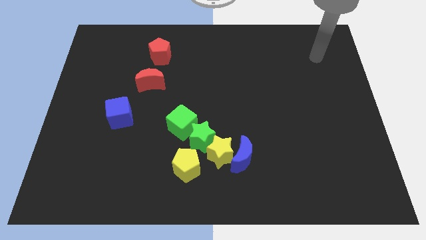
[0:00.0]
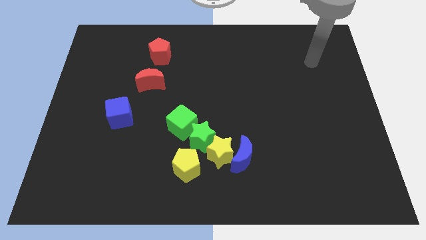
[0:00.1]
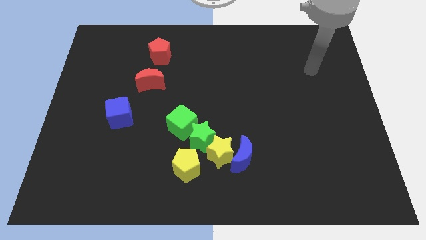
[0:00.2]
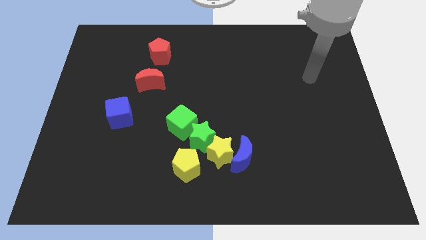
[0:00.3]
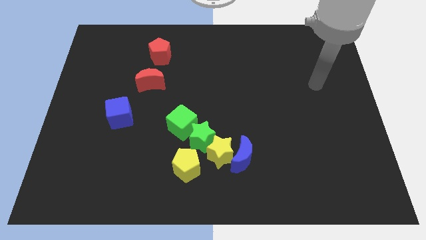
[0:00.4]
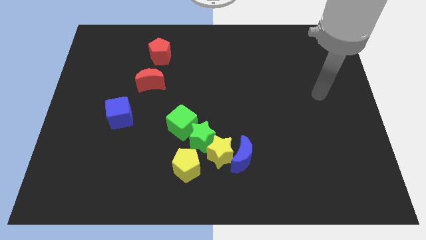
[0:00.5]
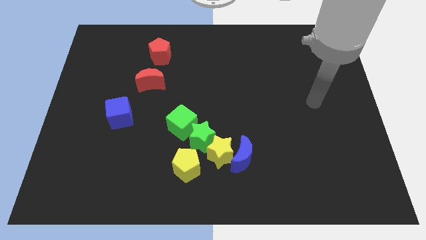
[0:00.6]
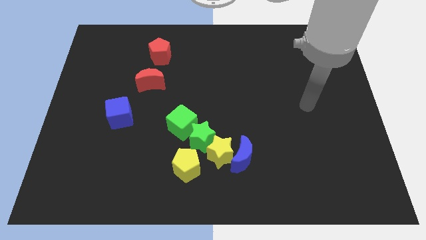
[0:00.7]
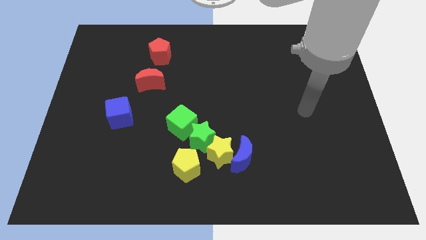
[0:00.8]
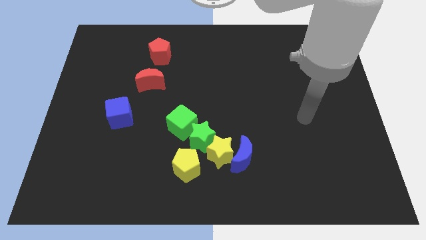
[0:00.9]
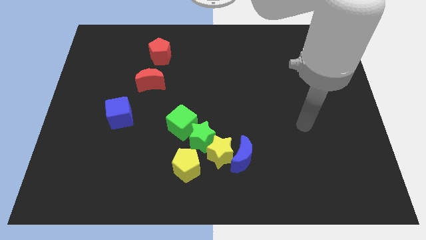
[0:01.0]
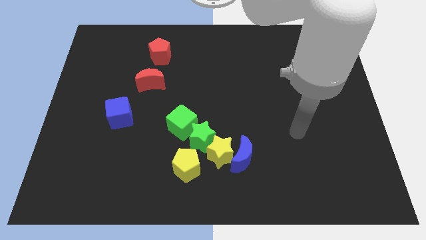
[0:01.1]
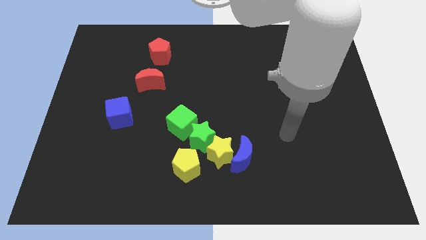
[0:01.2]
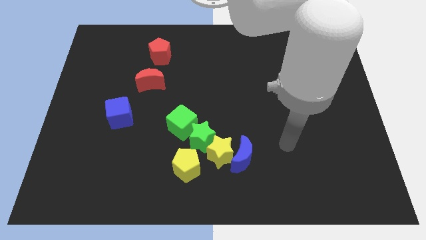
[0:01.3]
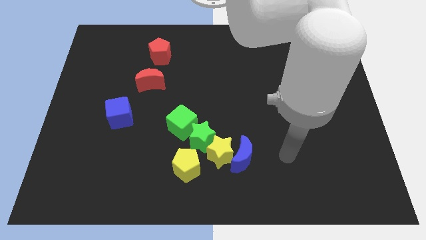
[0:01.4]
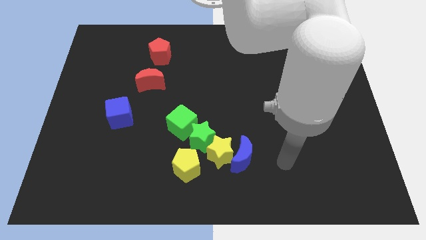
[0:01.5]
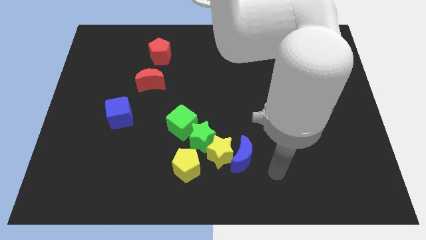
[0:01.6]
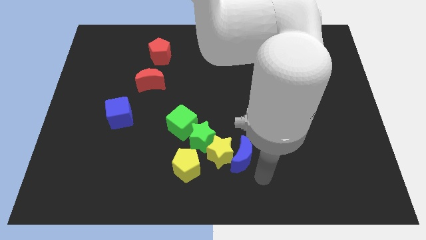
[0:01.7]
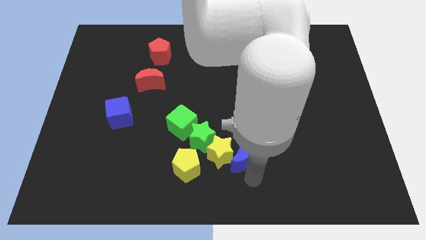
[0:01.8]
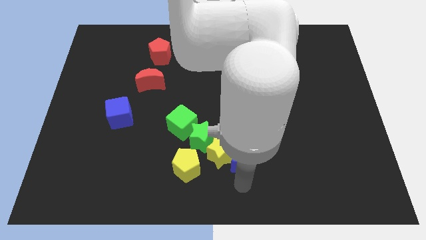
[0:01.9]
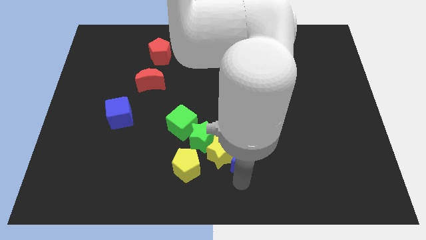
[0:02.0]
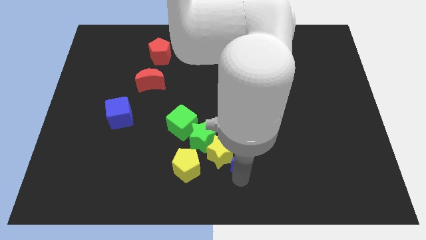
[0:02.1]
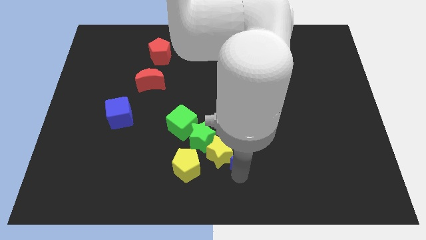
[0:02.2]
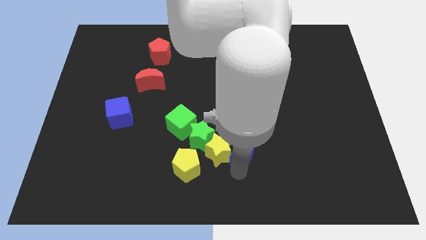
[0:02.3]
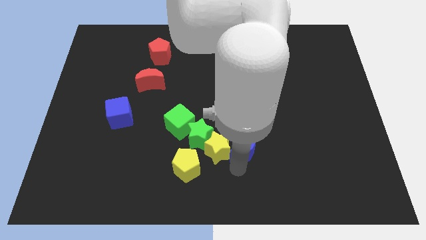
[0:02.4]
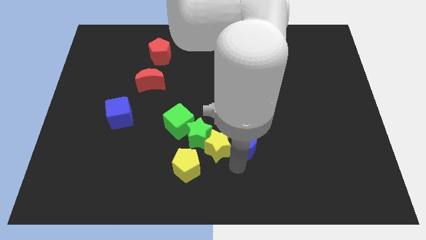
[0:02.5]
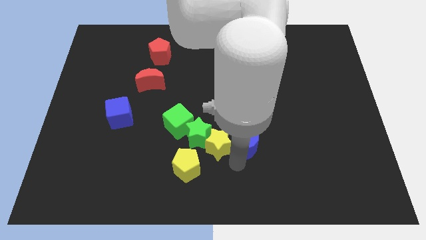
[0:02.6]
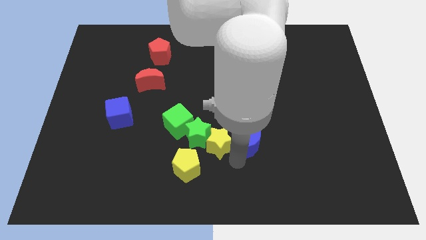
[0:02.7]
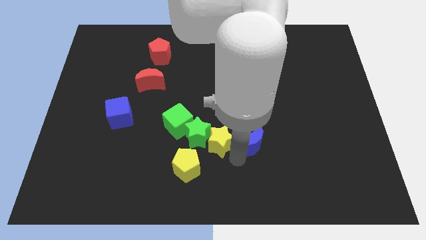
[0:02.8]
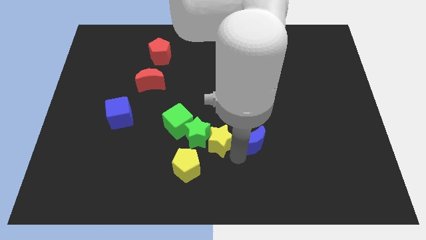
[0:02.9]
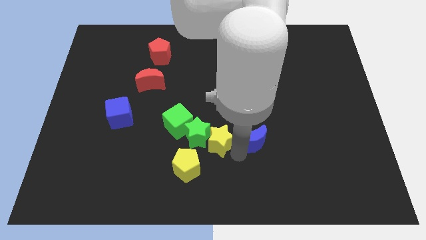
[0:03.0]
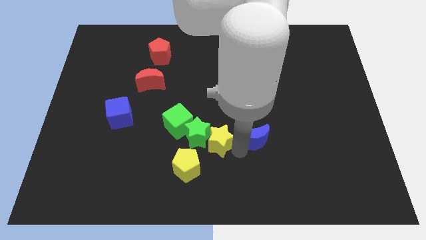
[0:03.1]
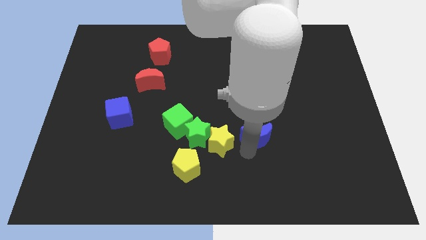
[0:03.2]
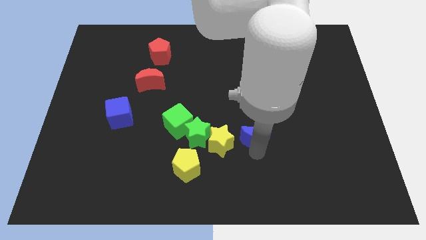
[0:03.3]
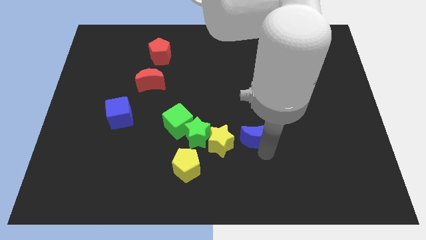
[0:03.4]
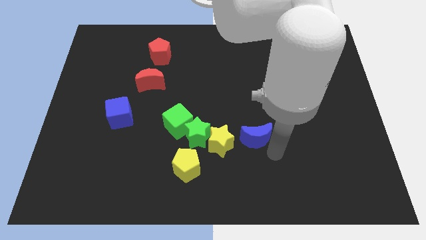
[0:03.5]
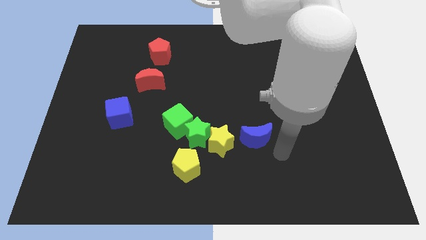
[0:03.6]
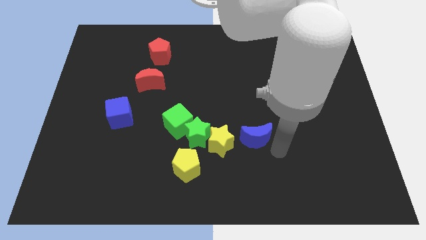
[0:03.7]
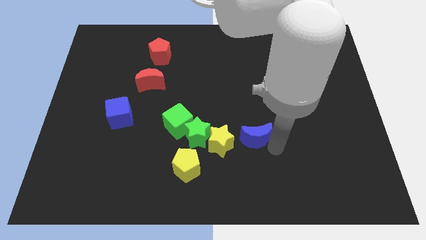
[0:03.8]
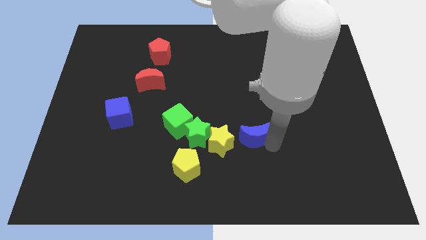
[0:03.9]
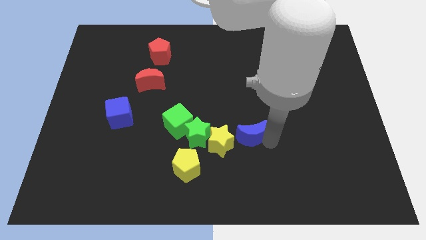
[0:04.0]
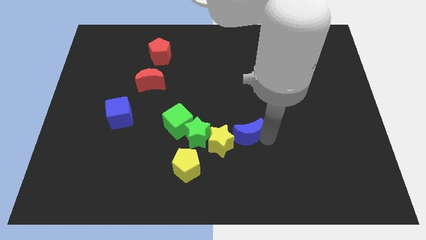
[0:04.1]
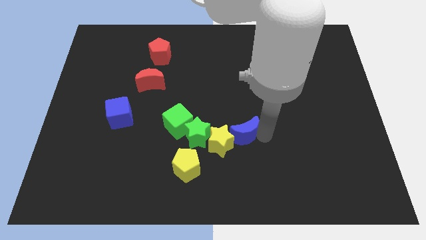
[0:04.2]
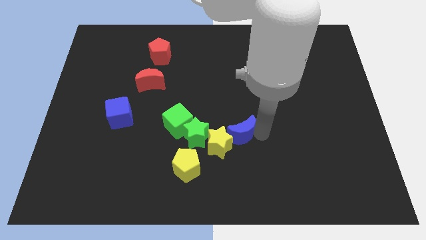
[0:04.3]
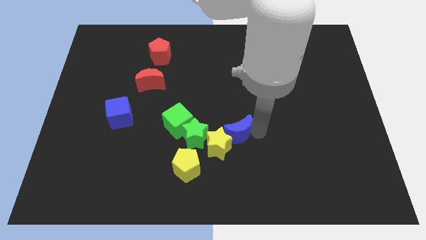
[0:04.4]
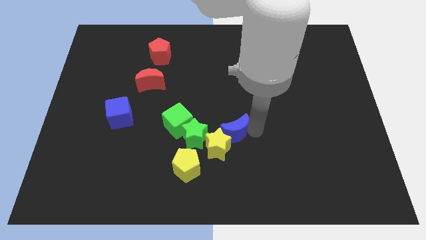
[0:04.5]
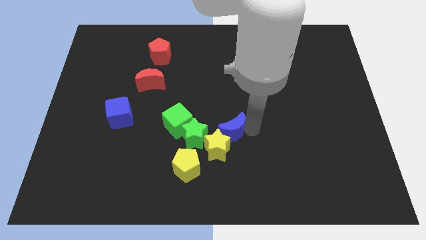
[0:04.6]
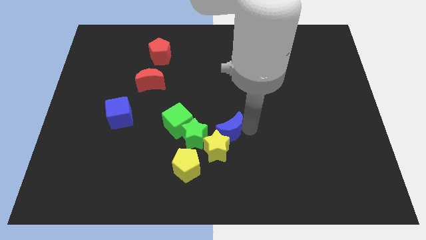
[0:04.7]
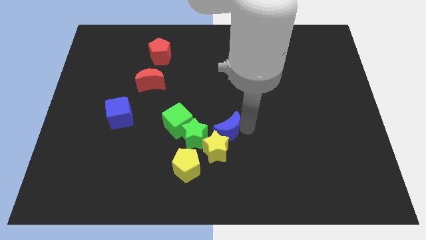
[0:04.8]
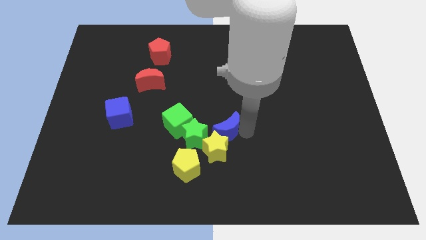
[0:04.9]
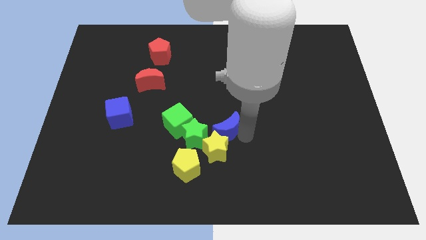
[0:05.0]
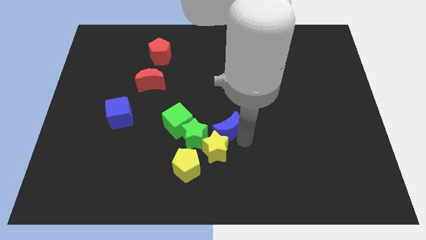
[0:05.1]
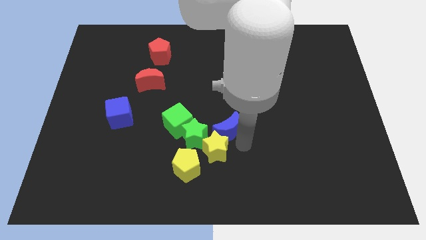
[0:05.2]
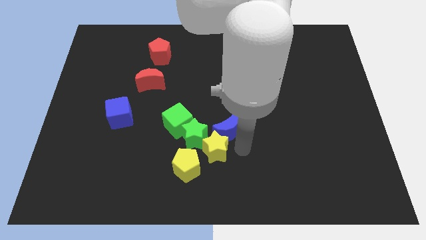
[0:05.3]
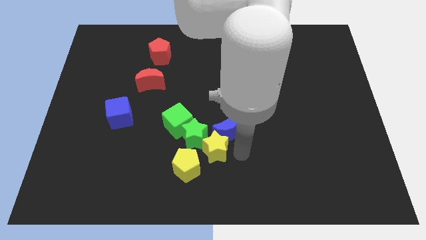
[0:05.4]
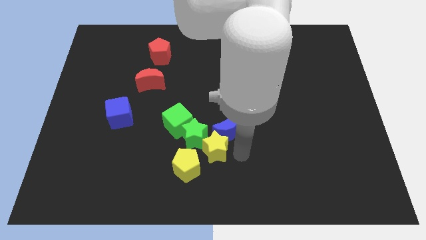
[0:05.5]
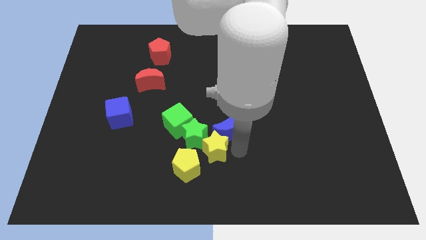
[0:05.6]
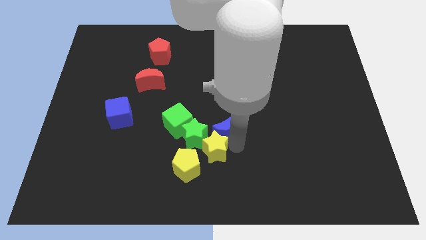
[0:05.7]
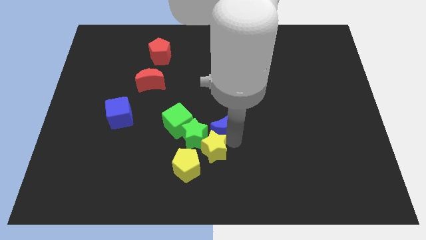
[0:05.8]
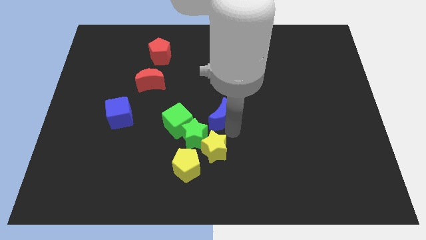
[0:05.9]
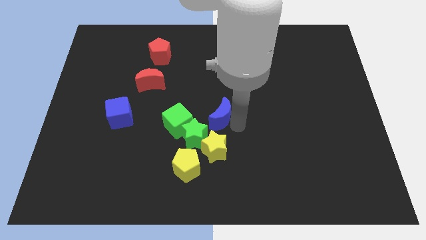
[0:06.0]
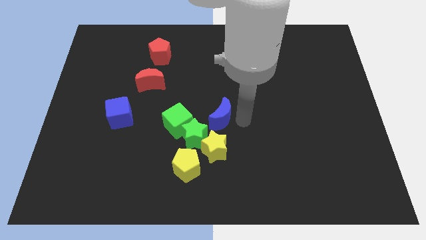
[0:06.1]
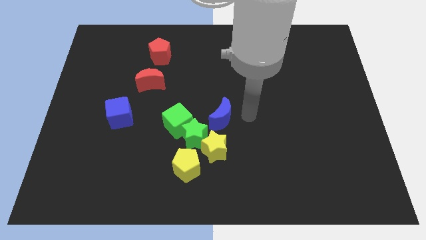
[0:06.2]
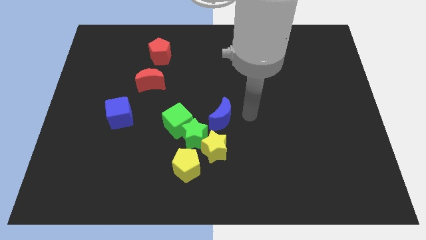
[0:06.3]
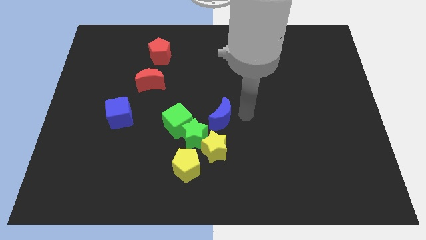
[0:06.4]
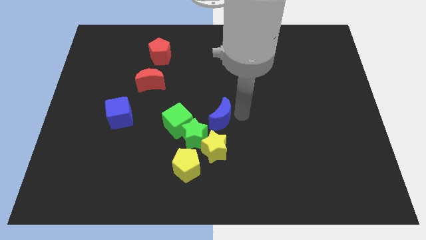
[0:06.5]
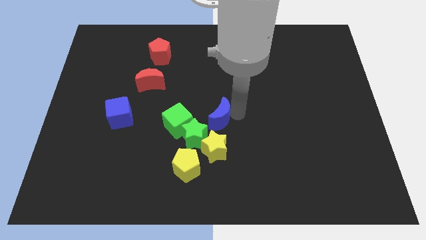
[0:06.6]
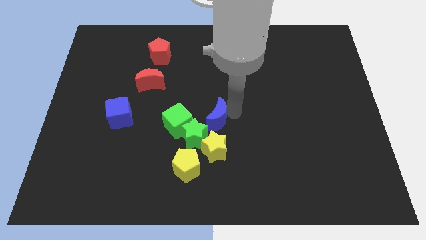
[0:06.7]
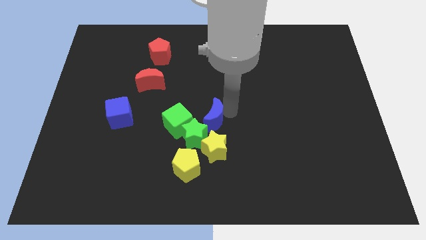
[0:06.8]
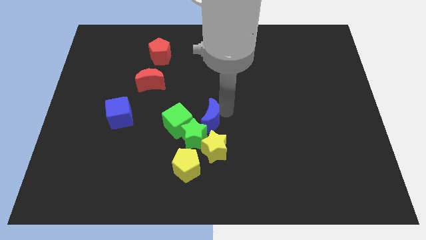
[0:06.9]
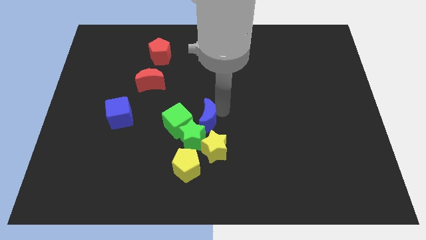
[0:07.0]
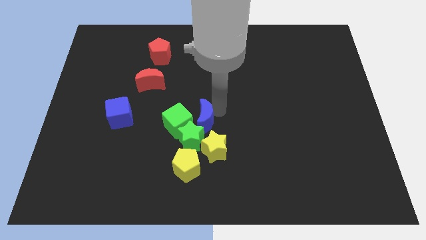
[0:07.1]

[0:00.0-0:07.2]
put the blue moon close to the green cube

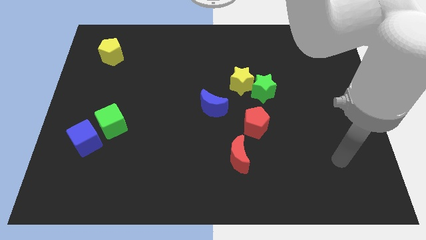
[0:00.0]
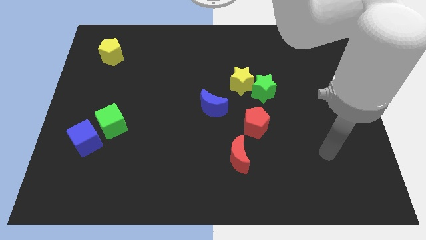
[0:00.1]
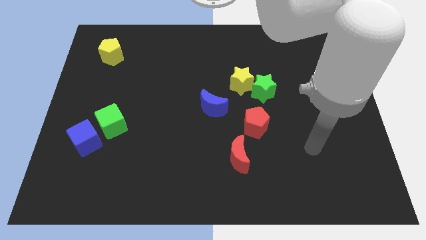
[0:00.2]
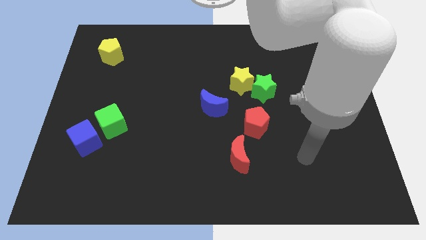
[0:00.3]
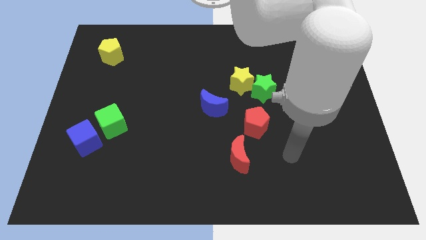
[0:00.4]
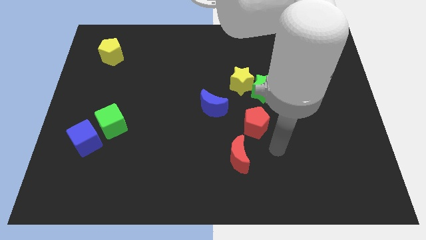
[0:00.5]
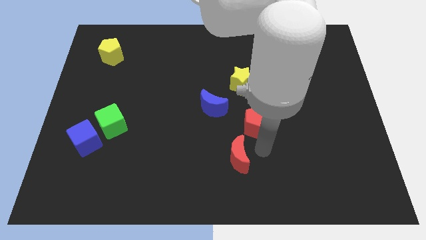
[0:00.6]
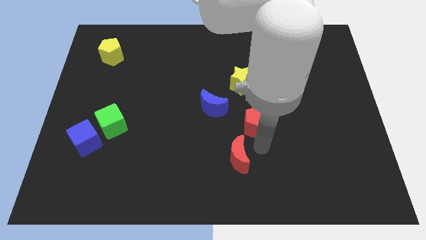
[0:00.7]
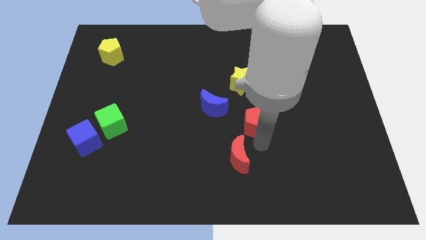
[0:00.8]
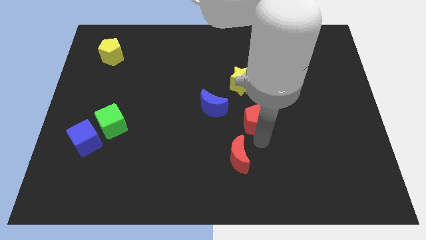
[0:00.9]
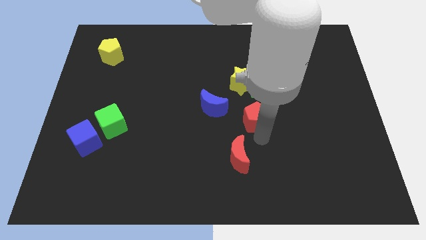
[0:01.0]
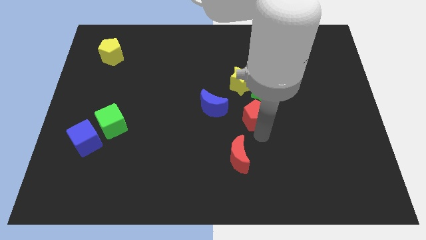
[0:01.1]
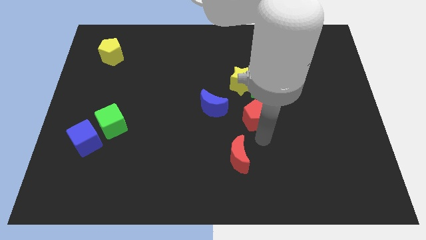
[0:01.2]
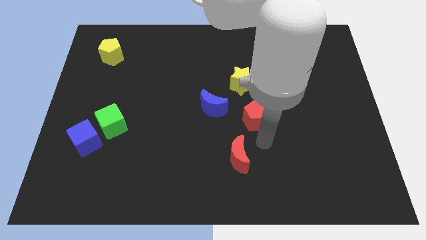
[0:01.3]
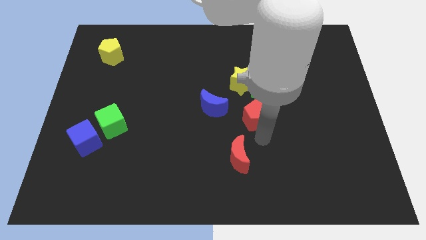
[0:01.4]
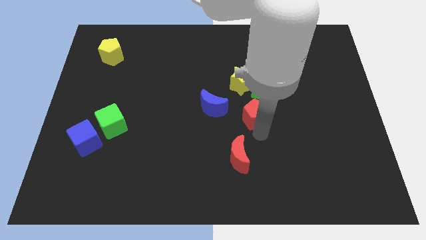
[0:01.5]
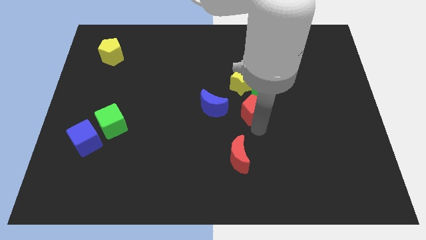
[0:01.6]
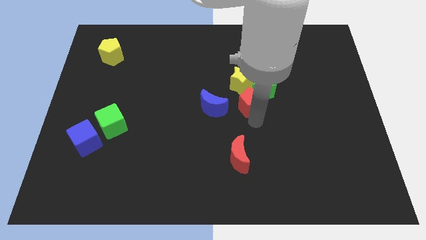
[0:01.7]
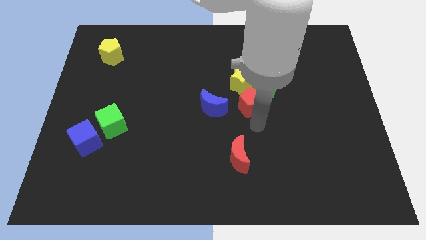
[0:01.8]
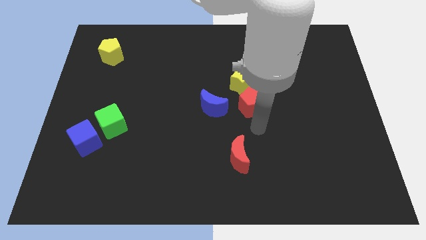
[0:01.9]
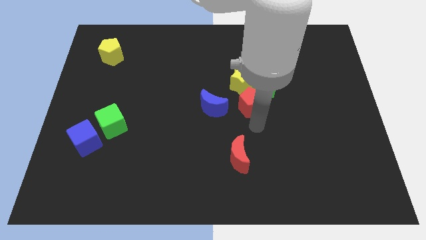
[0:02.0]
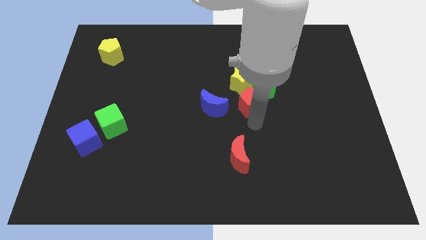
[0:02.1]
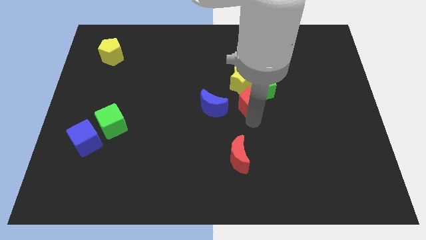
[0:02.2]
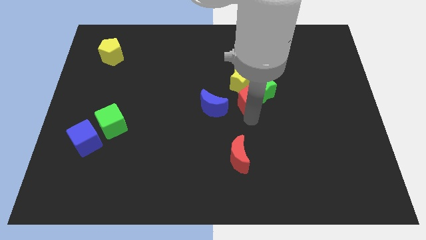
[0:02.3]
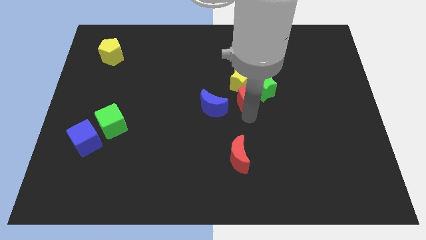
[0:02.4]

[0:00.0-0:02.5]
put the red pentagon towards the yellow star
